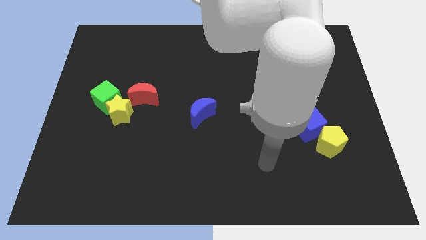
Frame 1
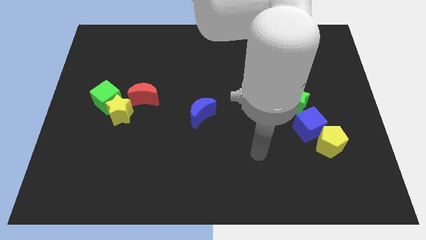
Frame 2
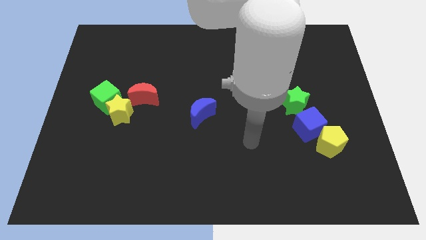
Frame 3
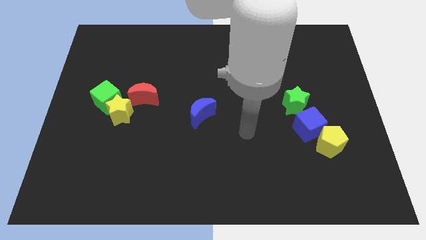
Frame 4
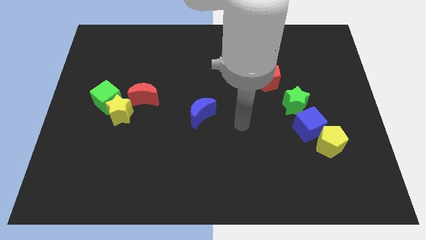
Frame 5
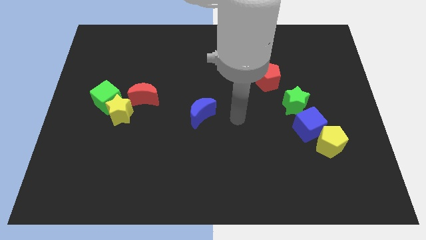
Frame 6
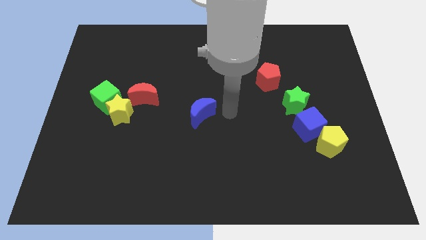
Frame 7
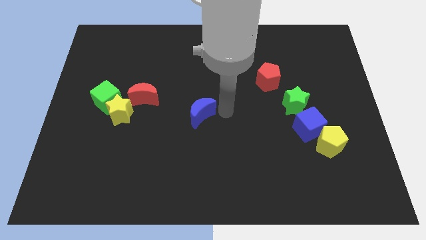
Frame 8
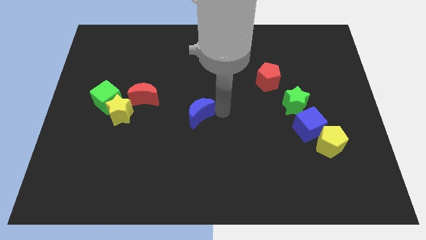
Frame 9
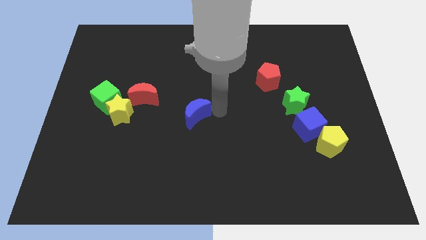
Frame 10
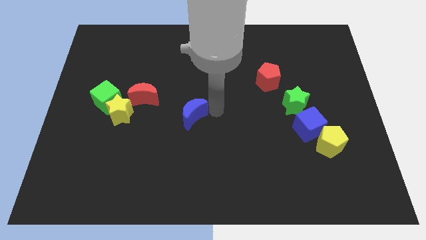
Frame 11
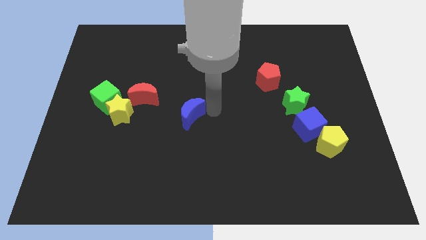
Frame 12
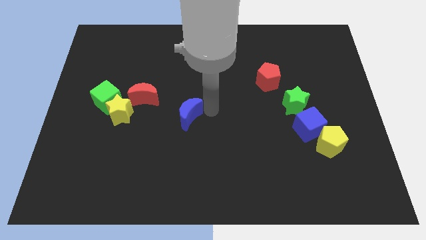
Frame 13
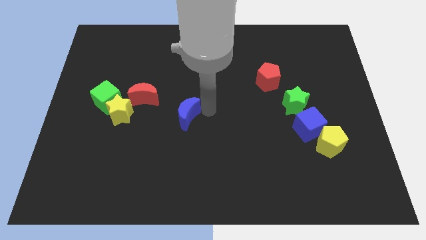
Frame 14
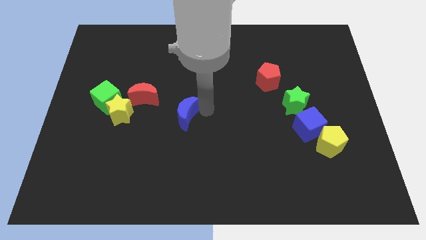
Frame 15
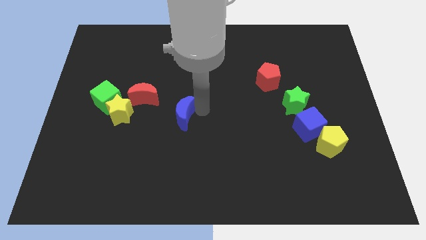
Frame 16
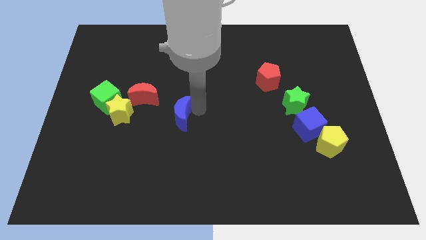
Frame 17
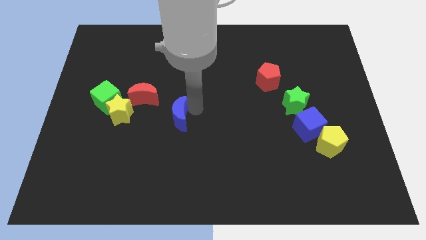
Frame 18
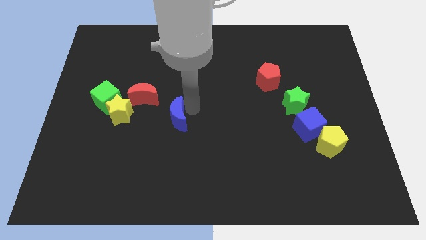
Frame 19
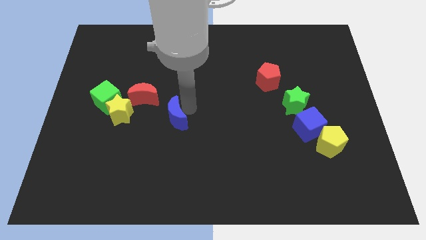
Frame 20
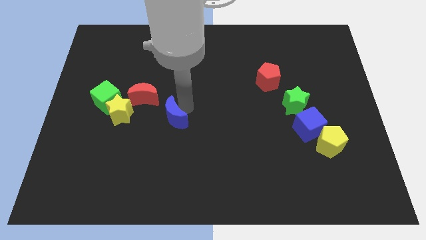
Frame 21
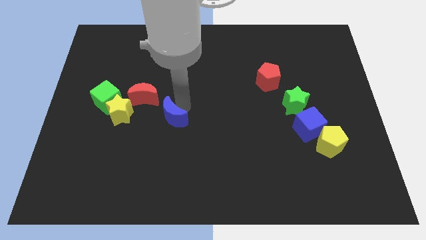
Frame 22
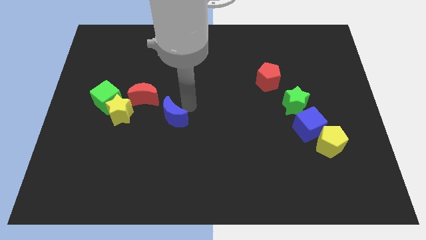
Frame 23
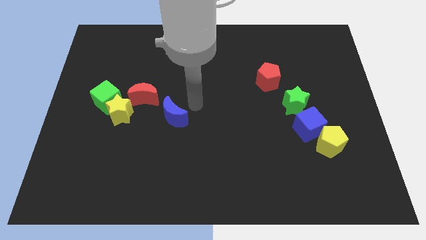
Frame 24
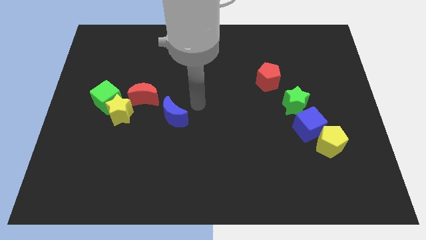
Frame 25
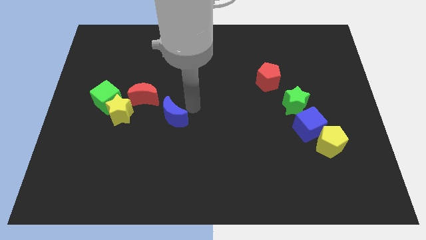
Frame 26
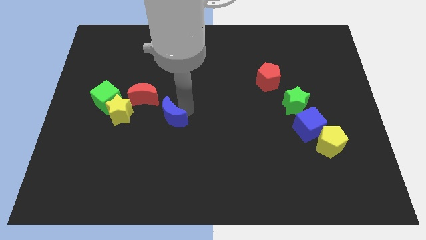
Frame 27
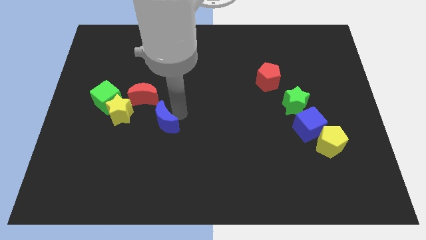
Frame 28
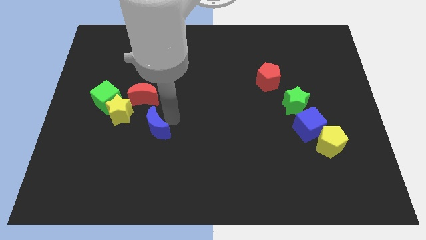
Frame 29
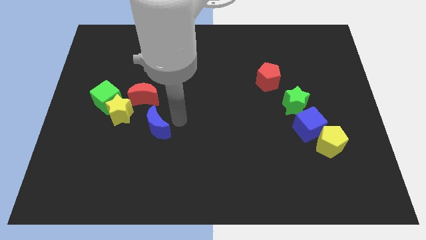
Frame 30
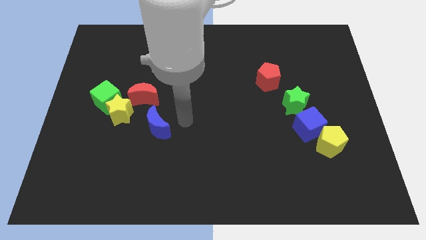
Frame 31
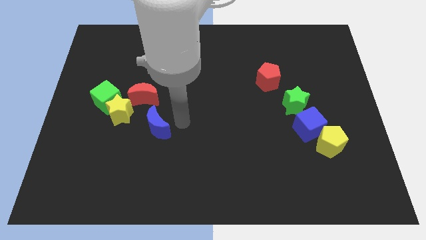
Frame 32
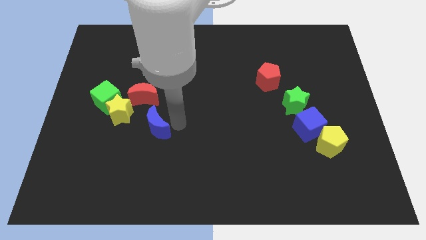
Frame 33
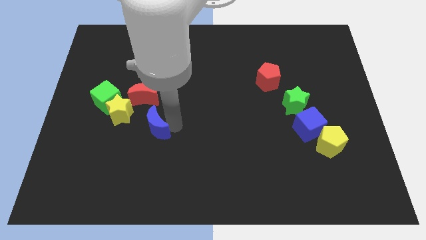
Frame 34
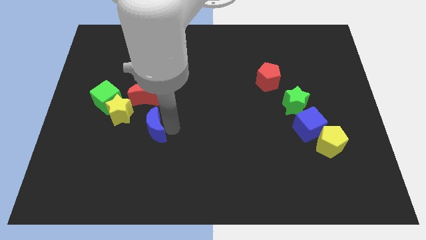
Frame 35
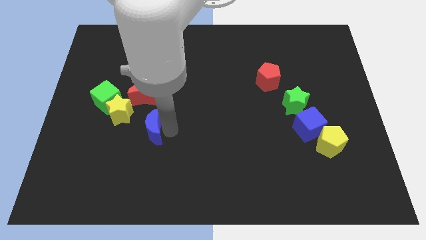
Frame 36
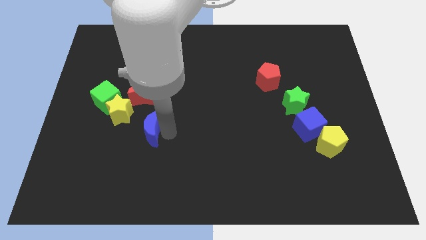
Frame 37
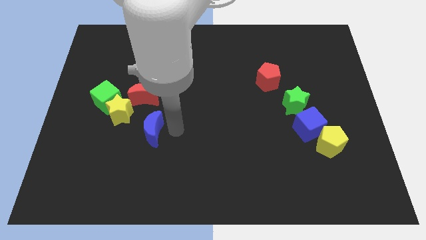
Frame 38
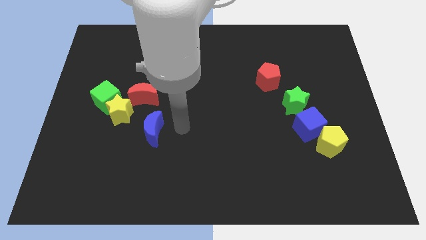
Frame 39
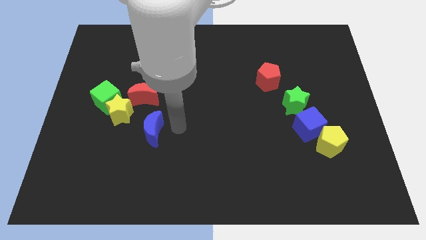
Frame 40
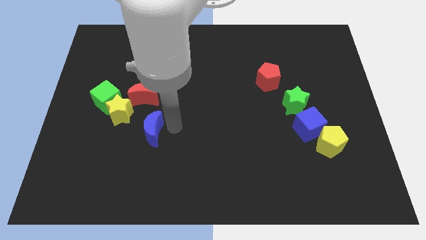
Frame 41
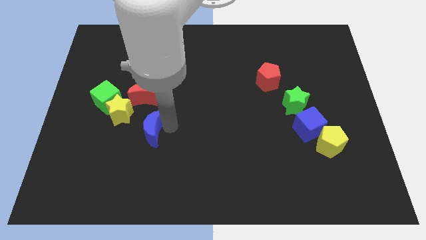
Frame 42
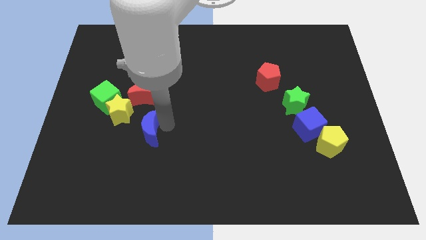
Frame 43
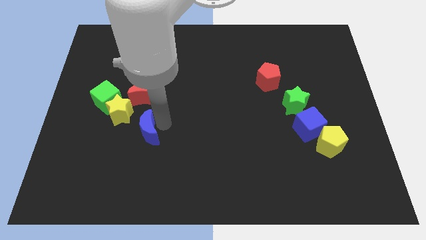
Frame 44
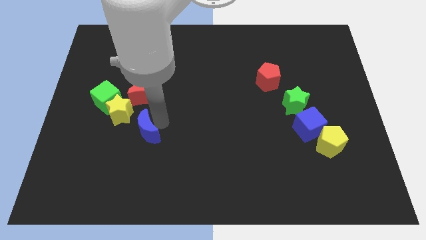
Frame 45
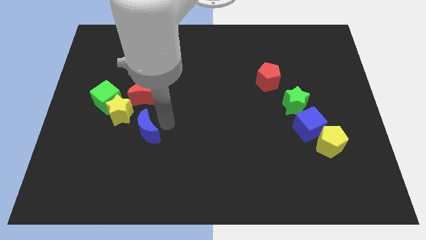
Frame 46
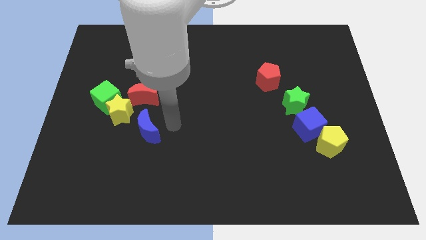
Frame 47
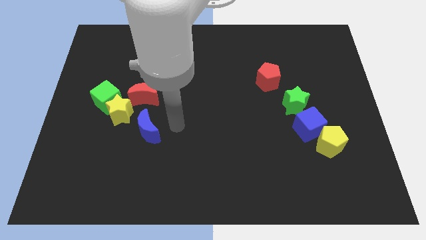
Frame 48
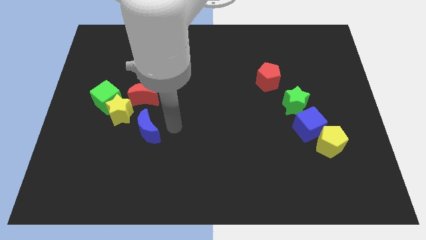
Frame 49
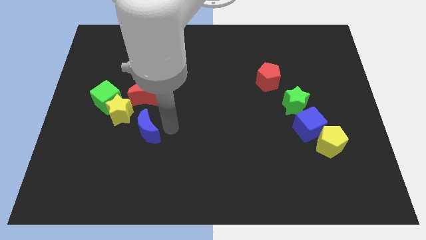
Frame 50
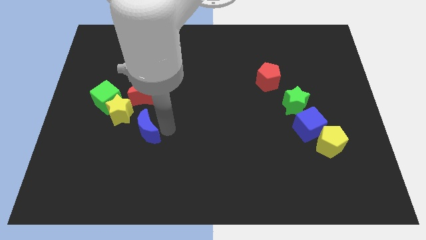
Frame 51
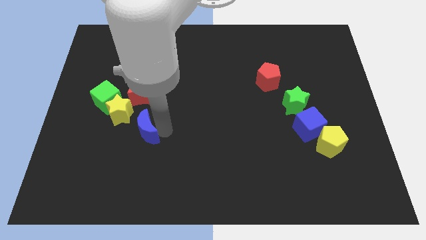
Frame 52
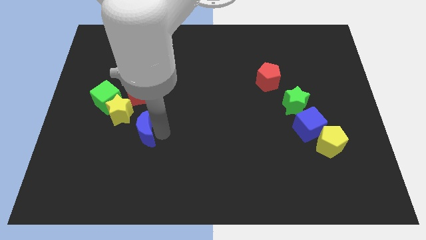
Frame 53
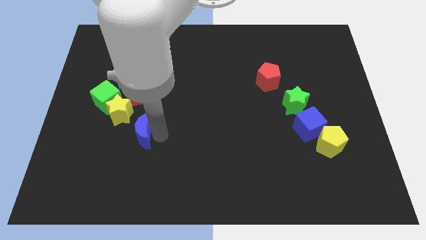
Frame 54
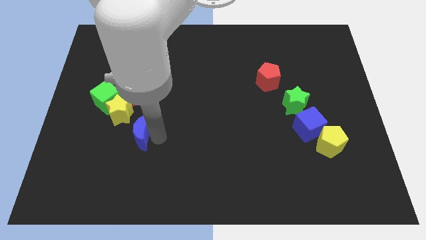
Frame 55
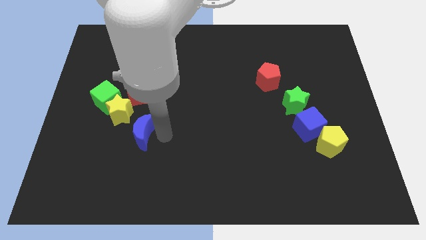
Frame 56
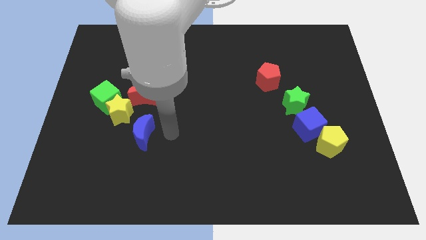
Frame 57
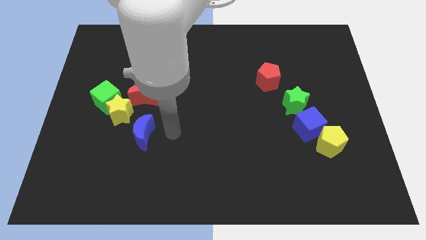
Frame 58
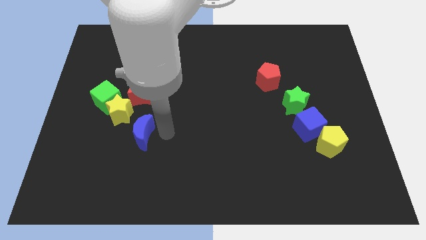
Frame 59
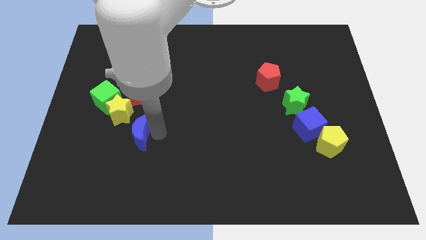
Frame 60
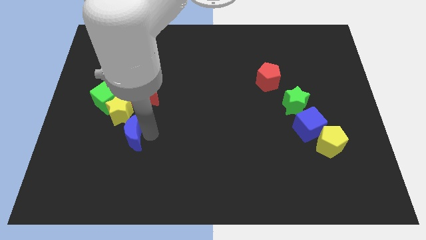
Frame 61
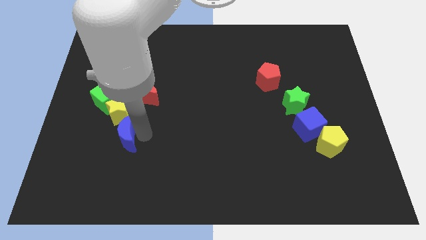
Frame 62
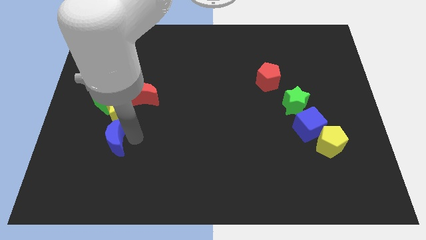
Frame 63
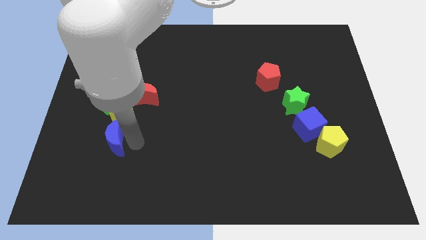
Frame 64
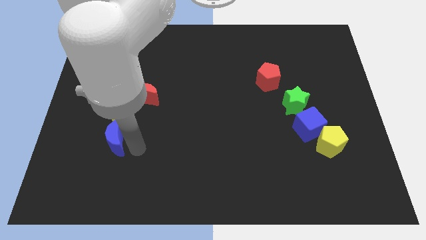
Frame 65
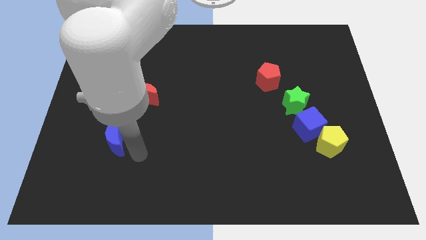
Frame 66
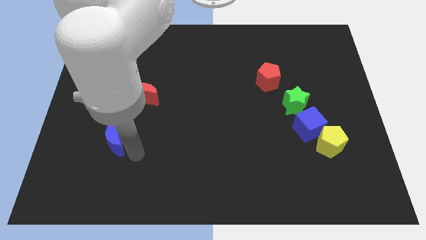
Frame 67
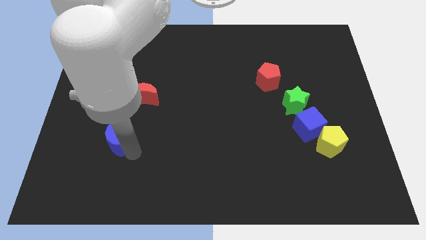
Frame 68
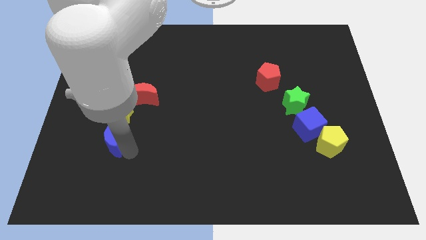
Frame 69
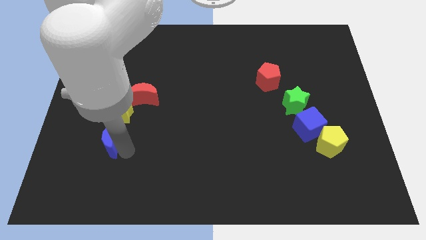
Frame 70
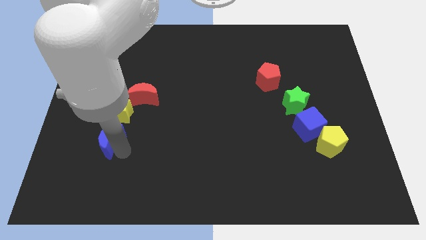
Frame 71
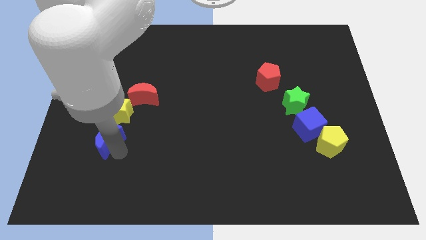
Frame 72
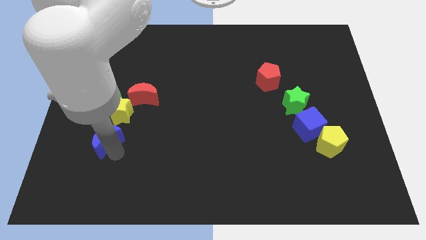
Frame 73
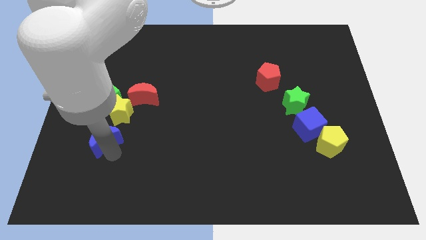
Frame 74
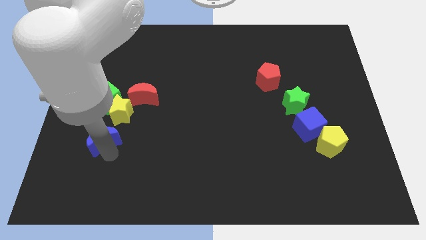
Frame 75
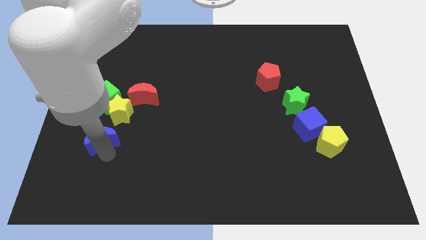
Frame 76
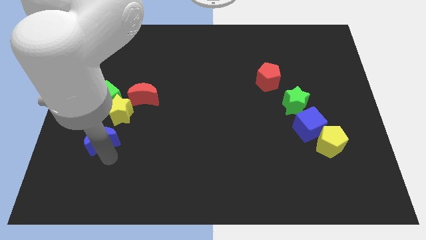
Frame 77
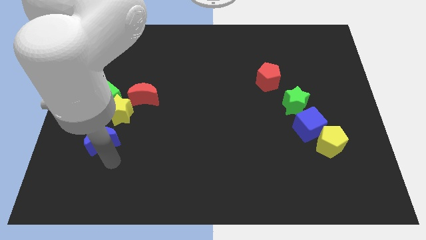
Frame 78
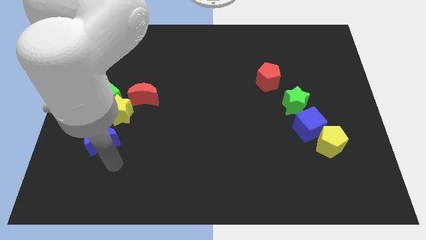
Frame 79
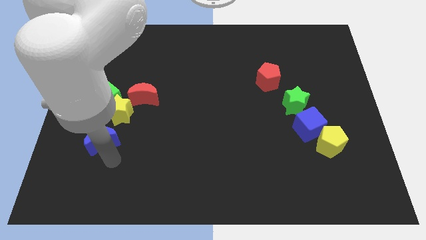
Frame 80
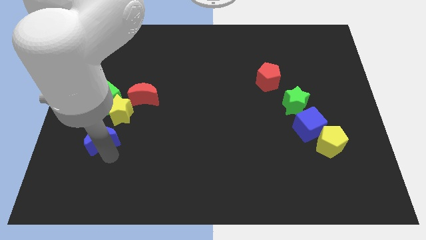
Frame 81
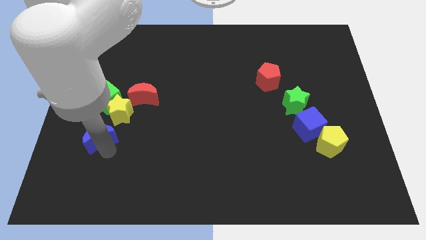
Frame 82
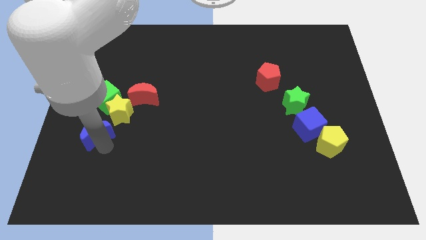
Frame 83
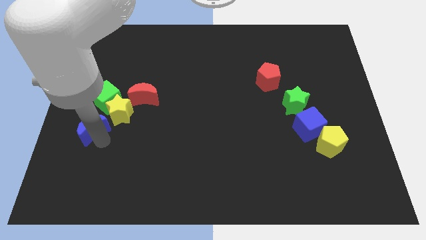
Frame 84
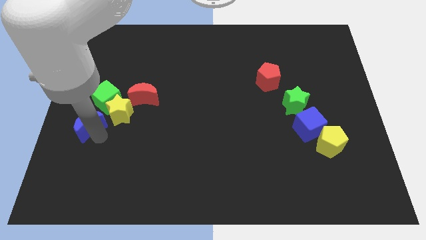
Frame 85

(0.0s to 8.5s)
push the blue moon to the left side of the board
